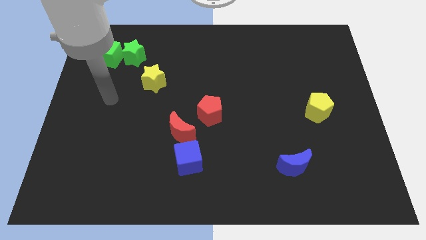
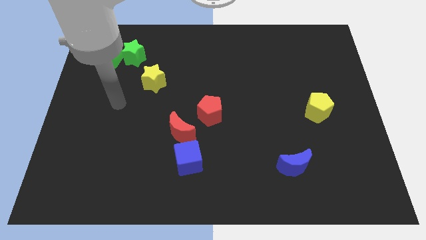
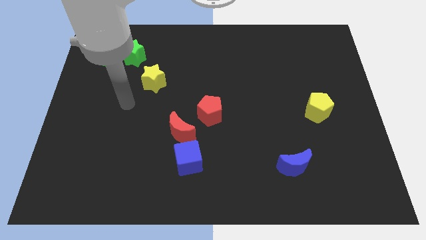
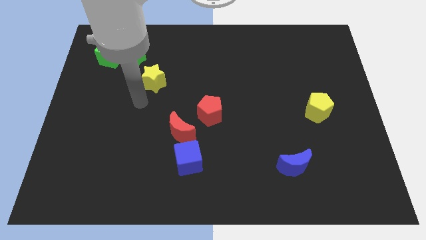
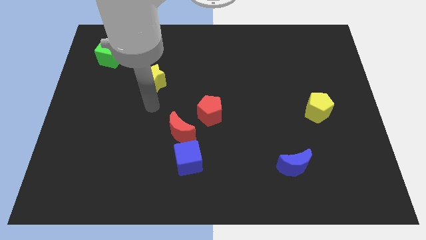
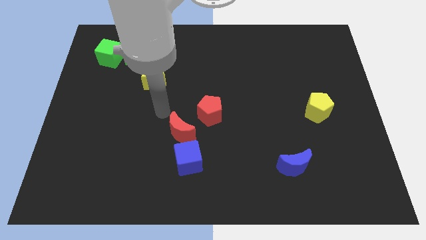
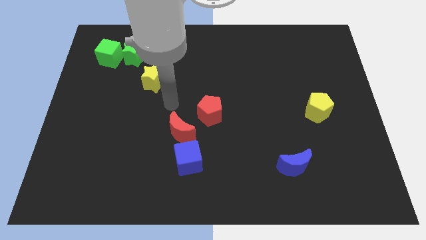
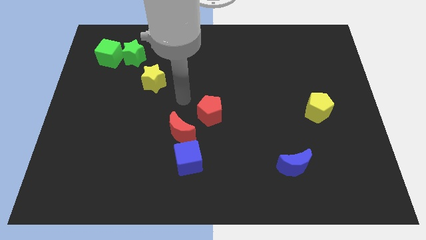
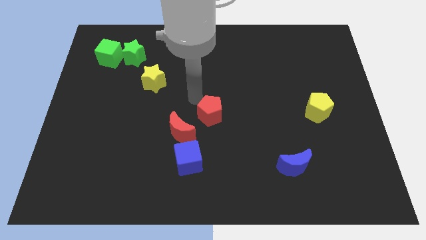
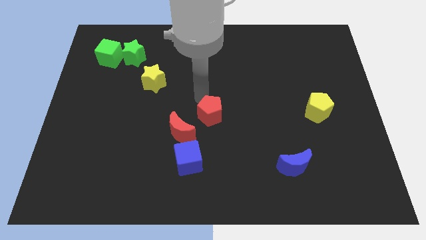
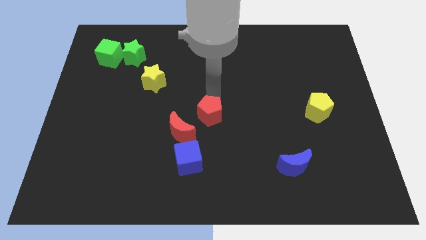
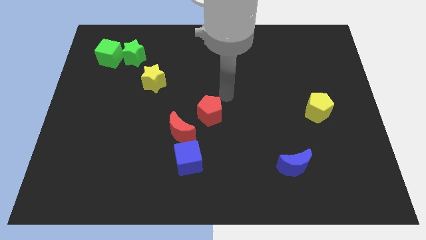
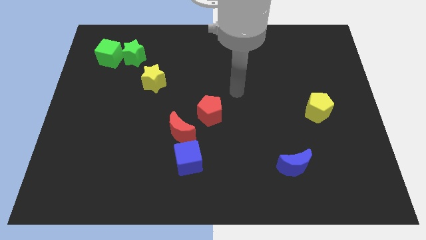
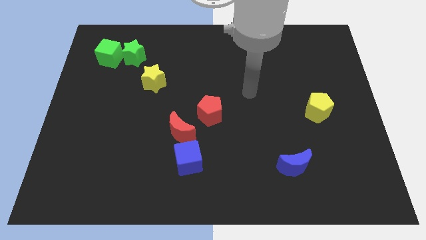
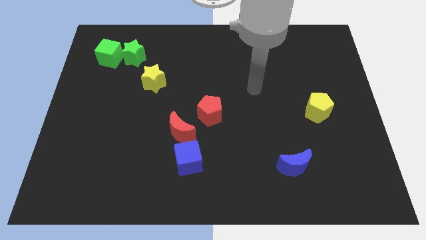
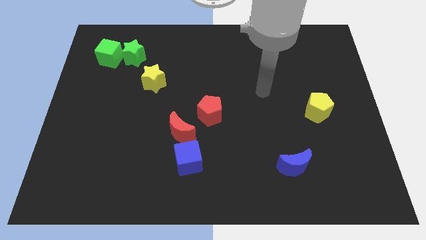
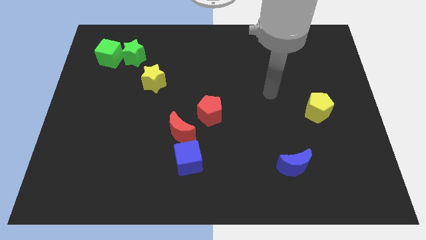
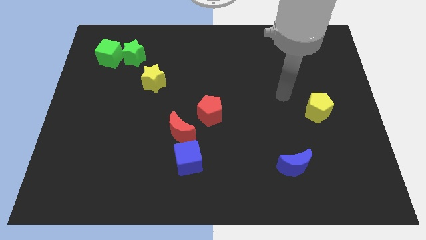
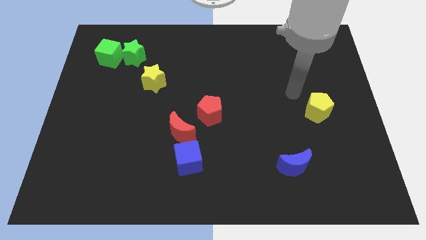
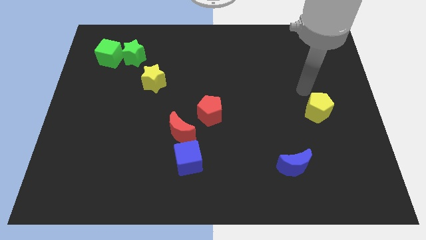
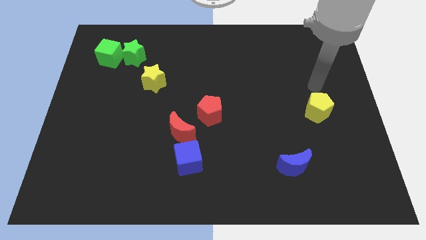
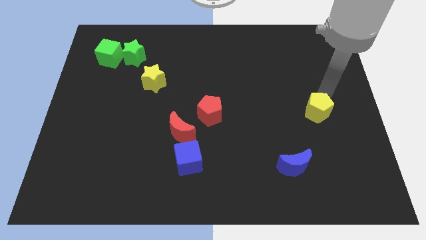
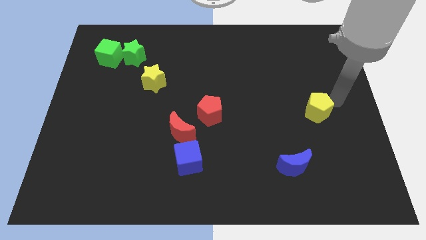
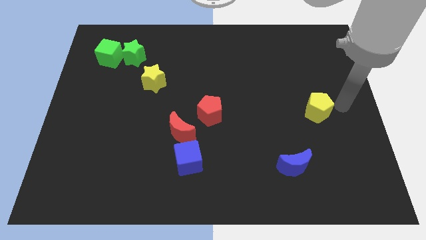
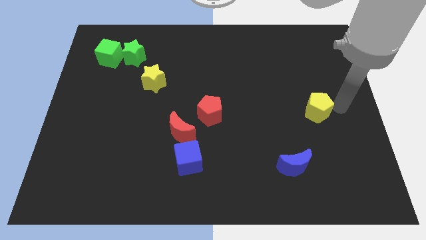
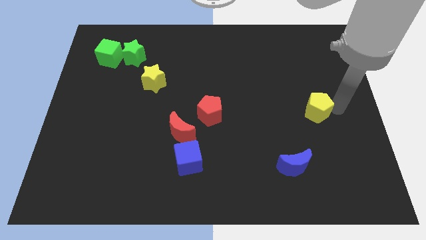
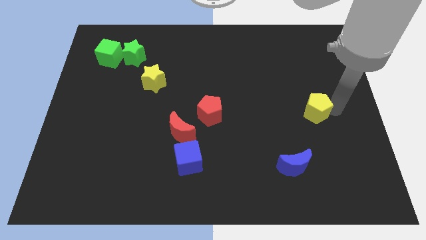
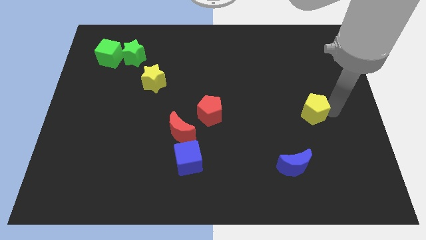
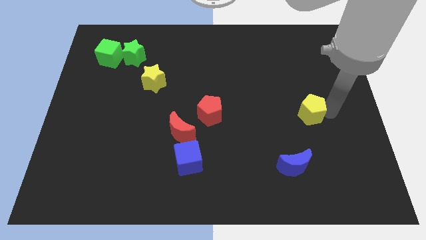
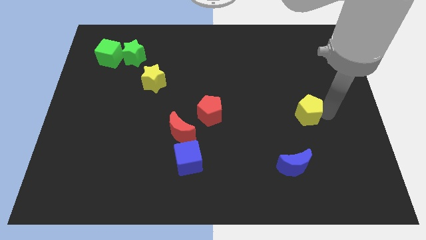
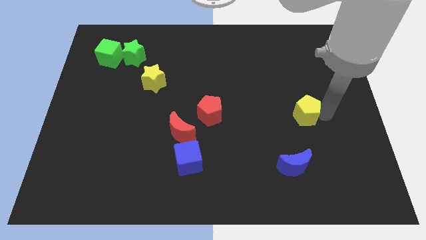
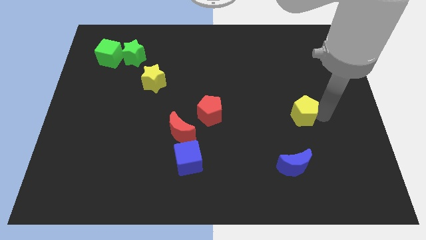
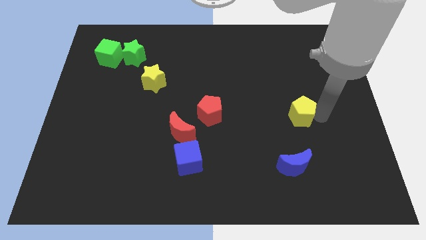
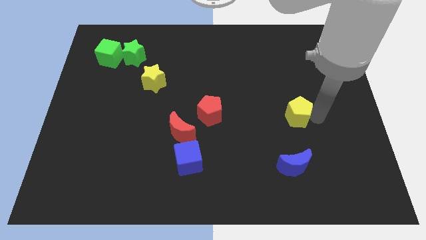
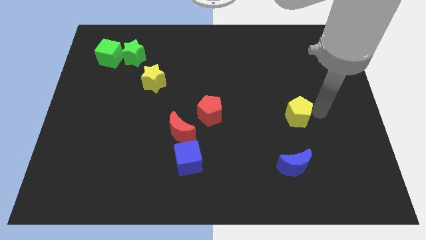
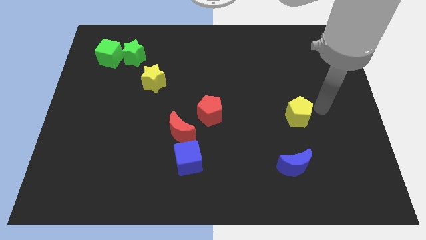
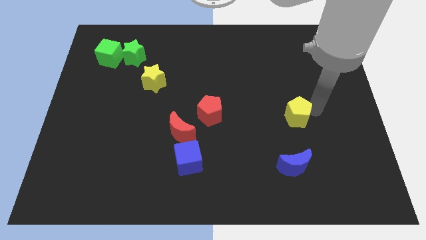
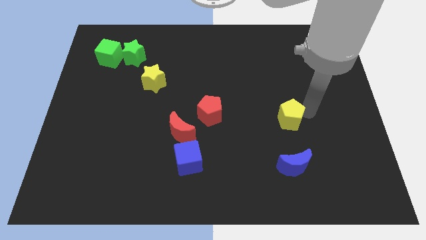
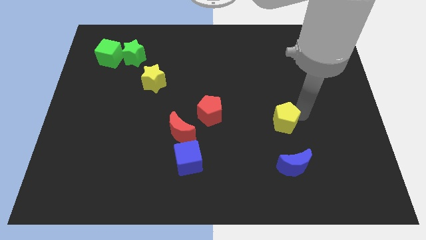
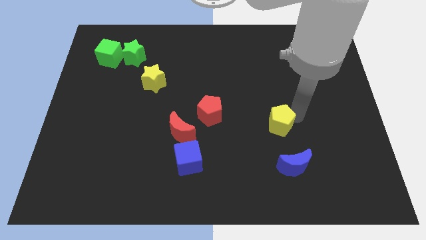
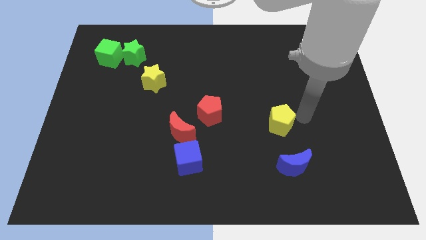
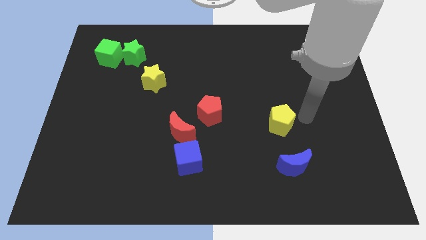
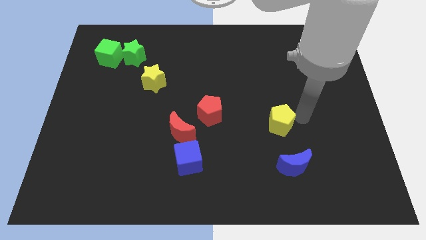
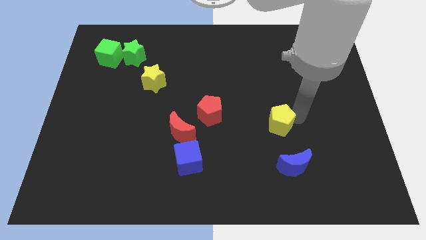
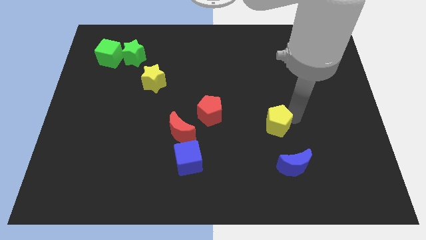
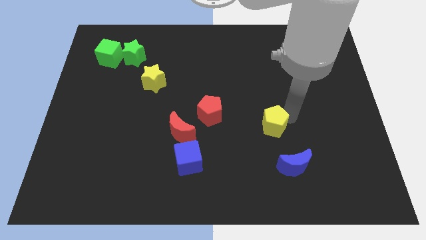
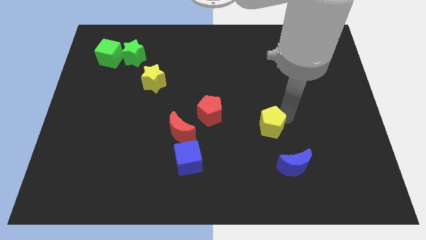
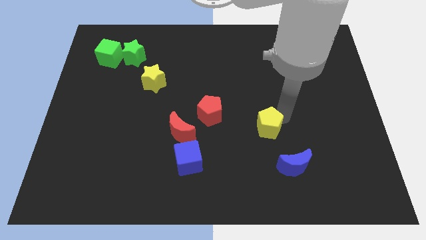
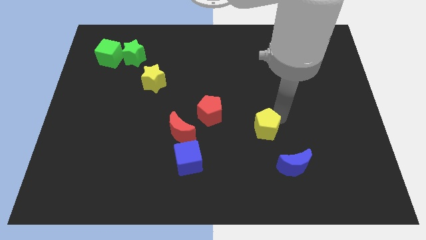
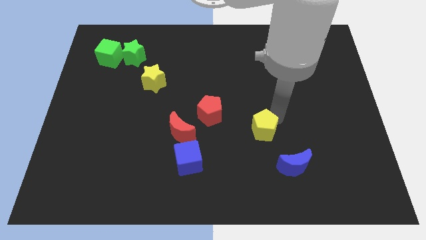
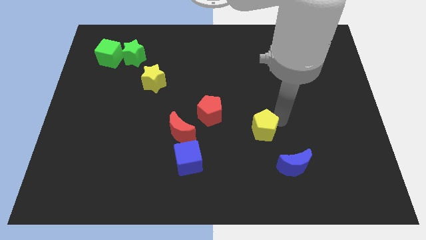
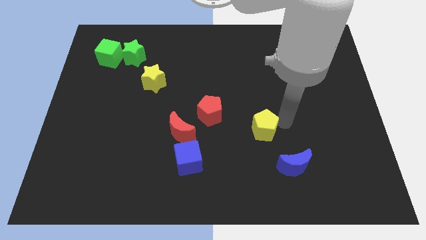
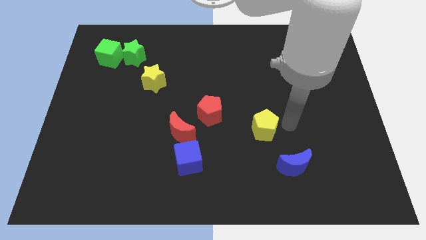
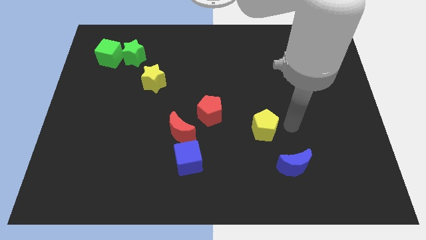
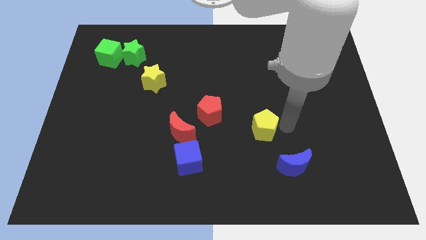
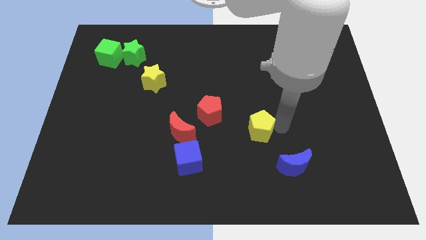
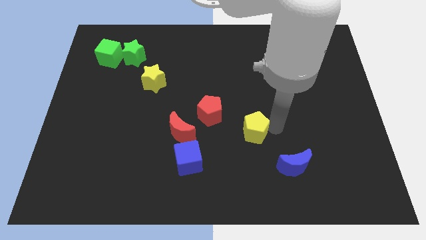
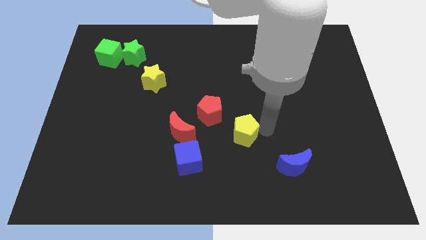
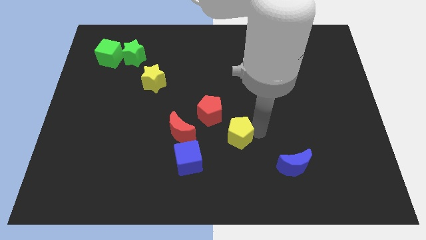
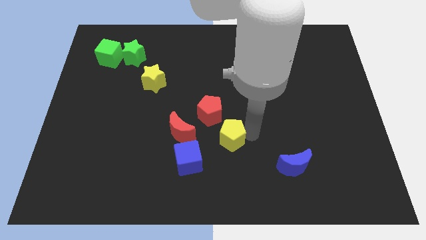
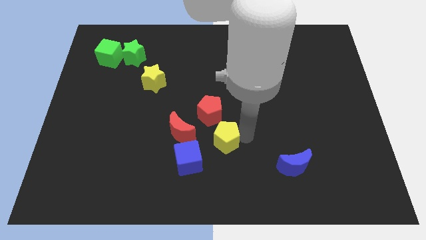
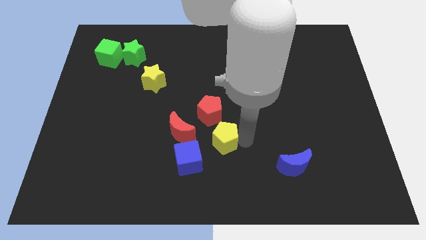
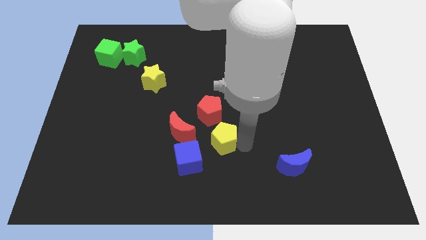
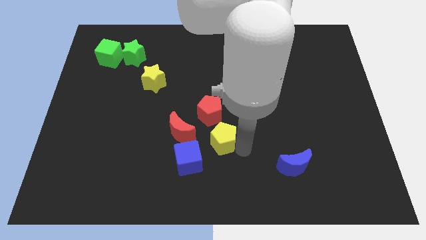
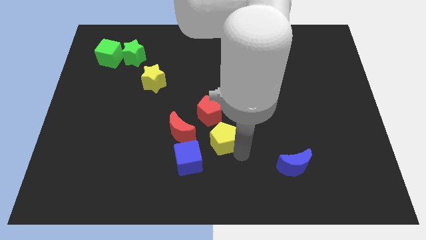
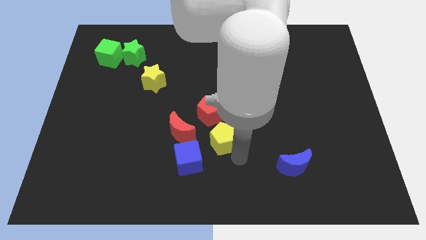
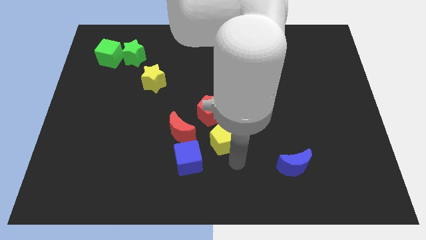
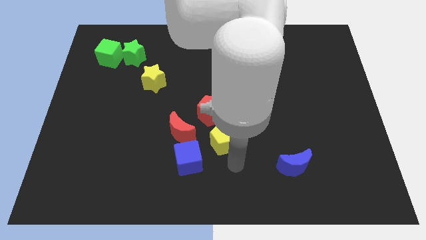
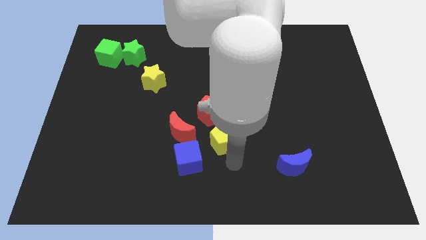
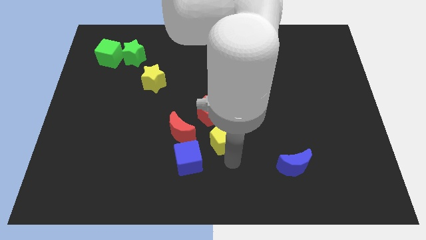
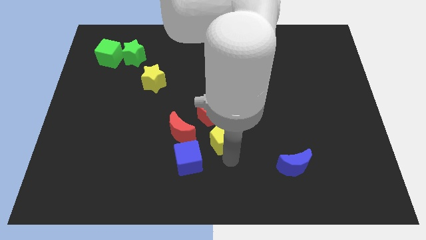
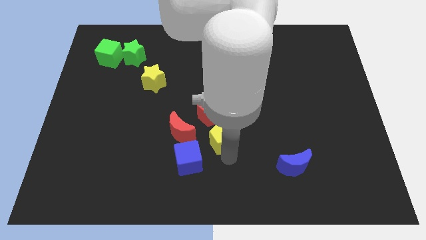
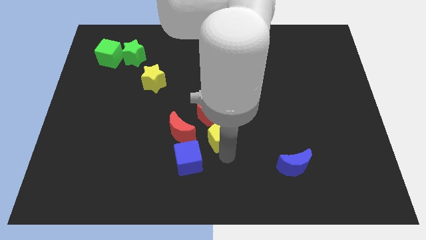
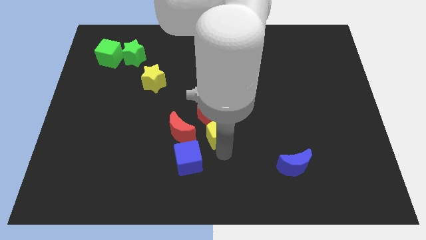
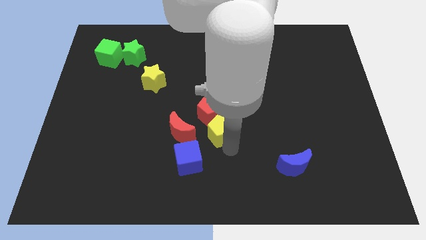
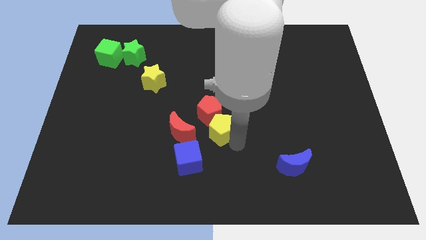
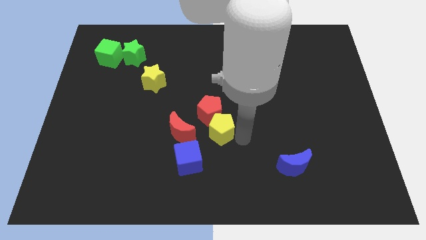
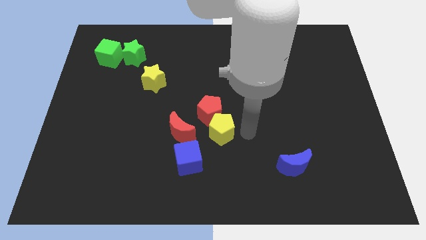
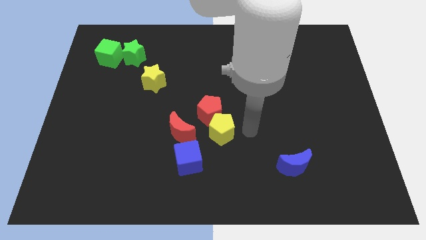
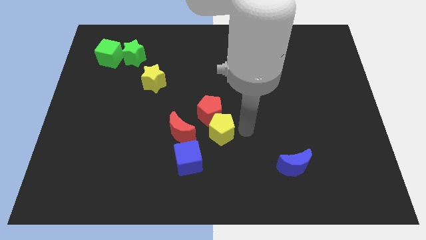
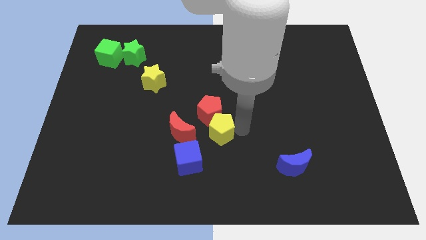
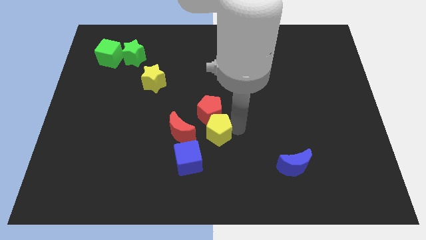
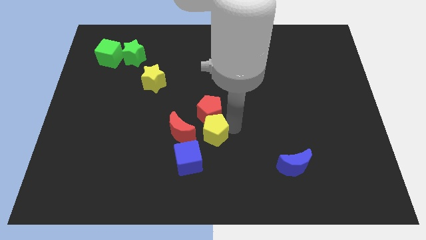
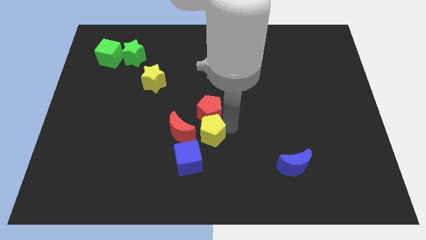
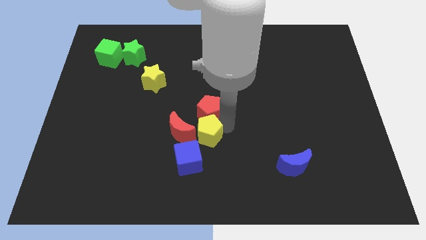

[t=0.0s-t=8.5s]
slide the yellow pentagon next to the red moon
